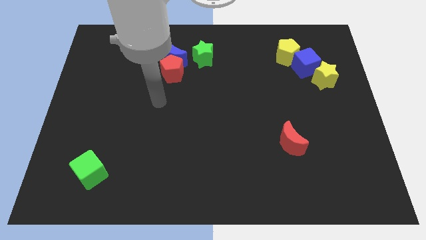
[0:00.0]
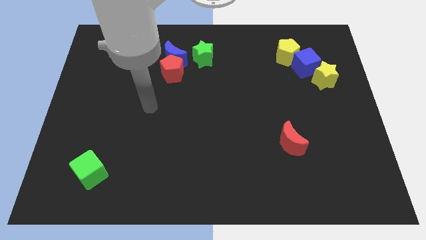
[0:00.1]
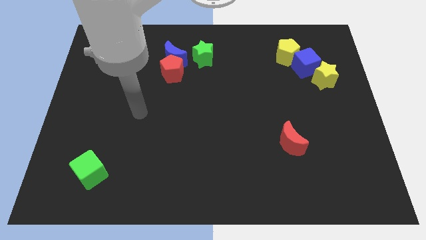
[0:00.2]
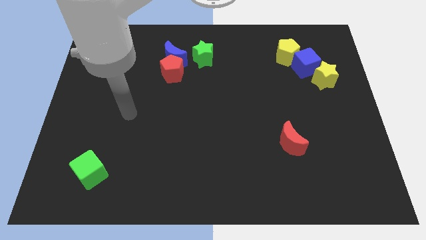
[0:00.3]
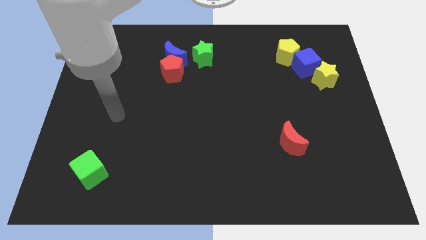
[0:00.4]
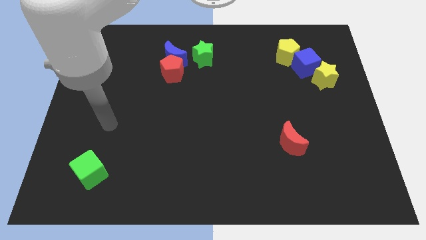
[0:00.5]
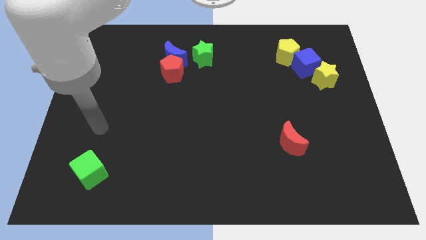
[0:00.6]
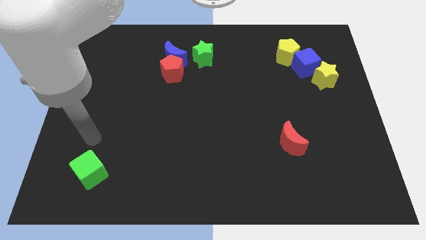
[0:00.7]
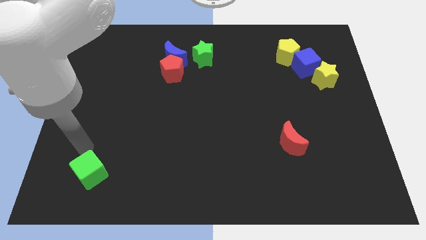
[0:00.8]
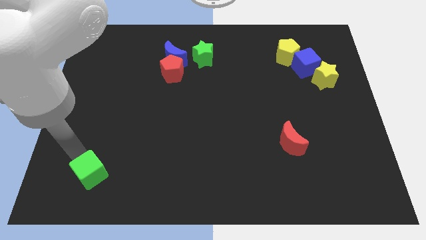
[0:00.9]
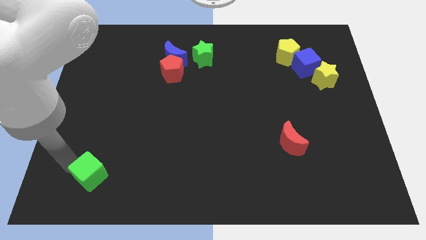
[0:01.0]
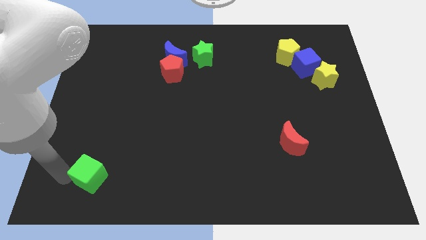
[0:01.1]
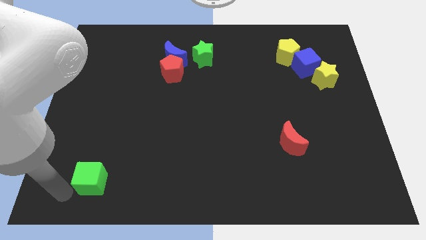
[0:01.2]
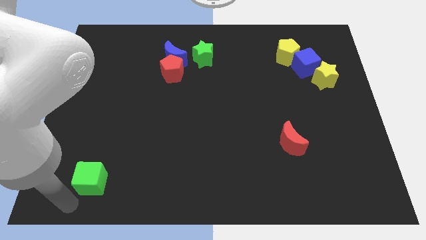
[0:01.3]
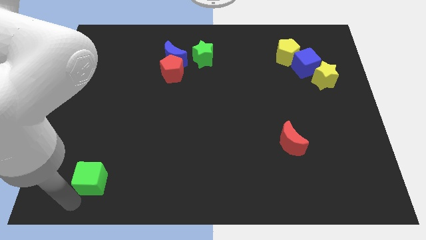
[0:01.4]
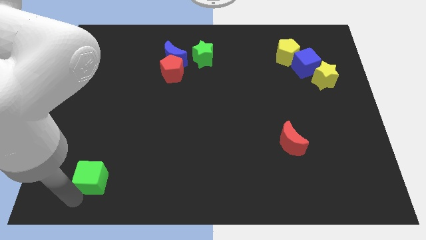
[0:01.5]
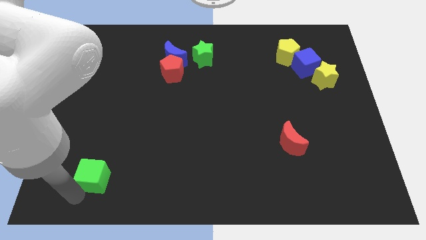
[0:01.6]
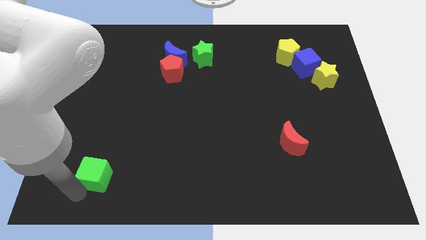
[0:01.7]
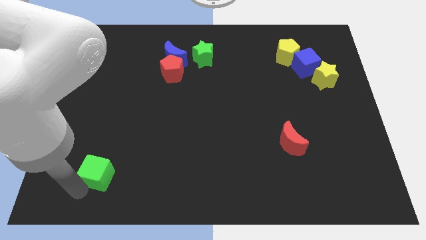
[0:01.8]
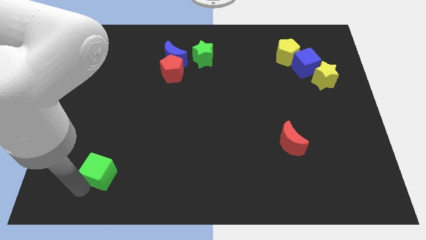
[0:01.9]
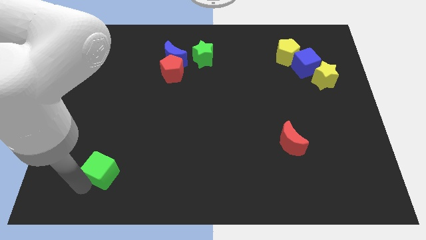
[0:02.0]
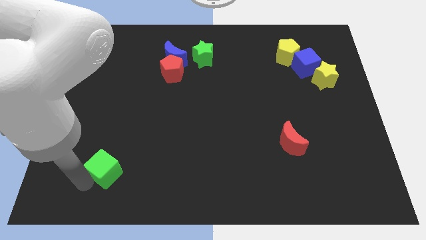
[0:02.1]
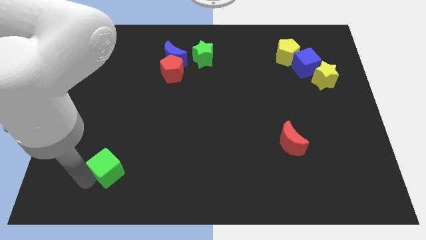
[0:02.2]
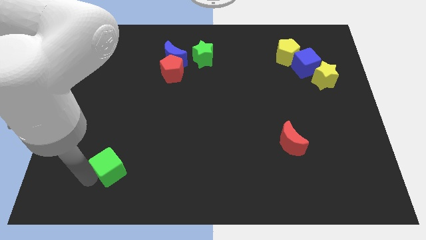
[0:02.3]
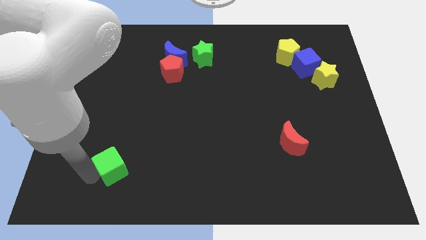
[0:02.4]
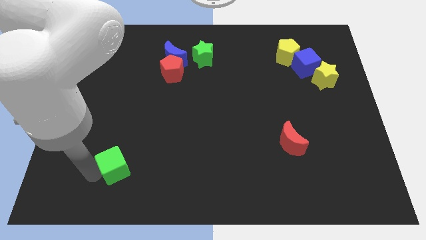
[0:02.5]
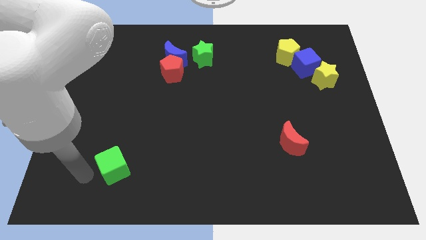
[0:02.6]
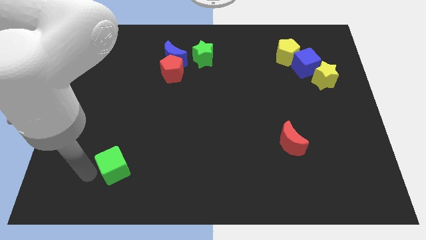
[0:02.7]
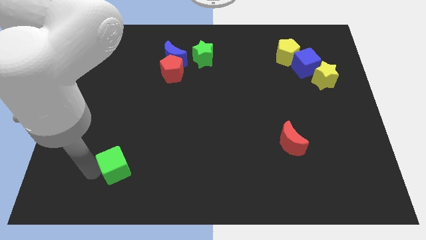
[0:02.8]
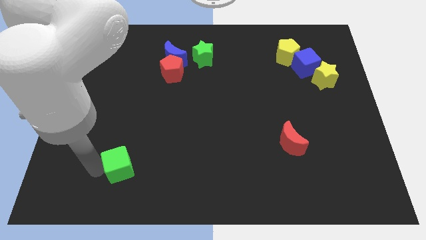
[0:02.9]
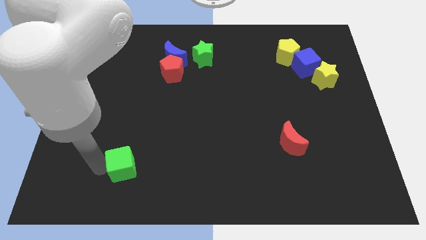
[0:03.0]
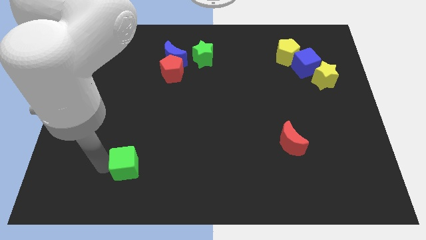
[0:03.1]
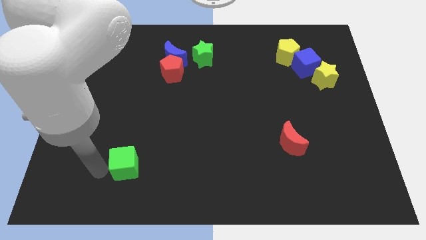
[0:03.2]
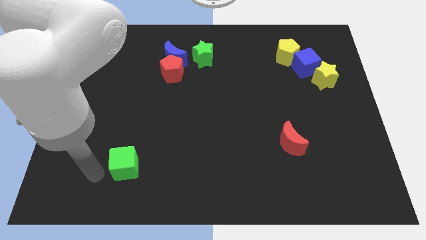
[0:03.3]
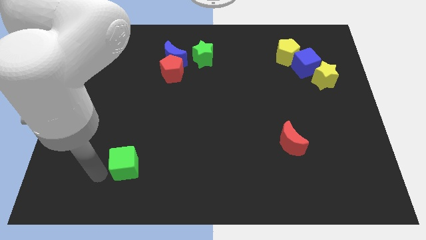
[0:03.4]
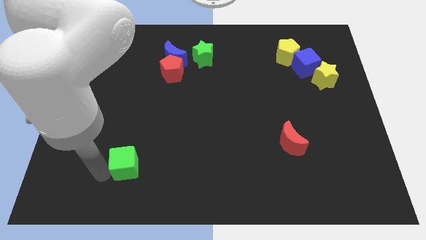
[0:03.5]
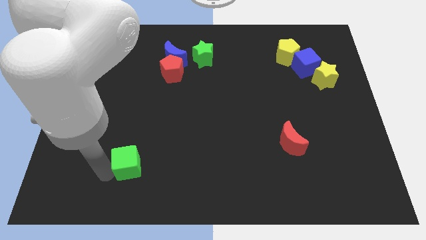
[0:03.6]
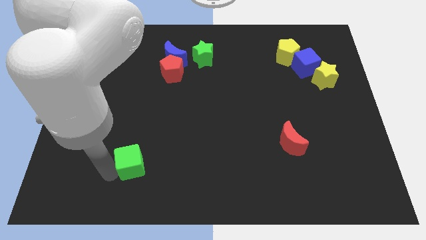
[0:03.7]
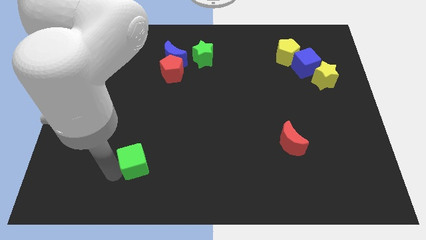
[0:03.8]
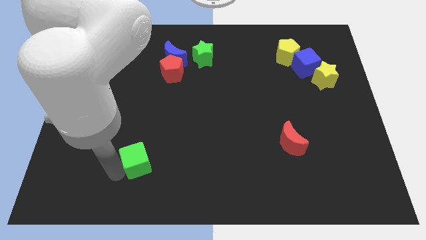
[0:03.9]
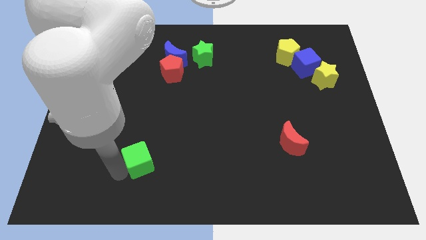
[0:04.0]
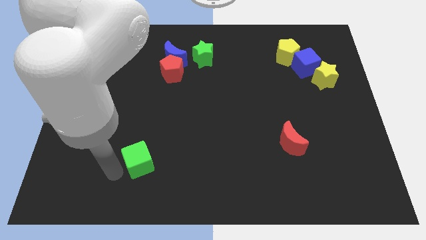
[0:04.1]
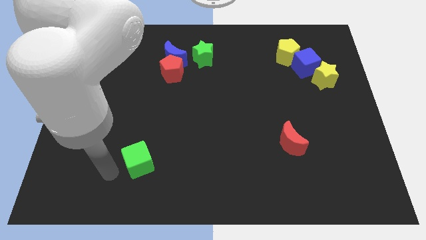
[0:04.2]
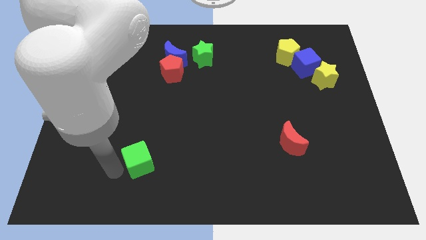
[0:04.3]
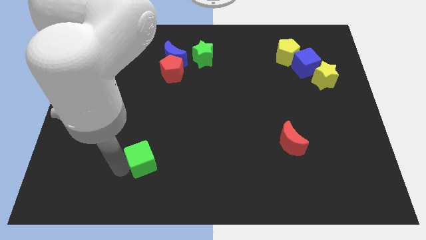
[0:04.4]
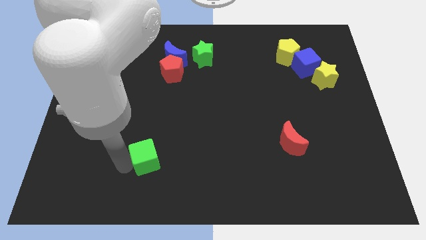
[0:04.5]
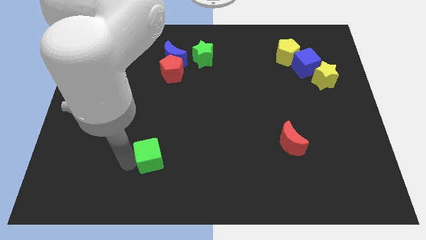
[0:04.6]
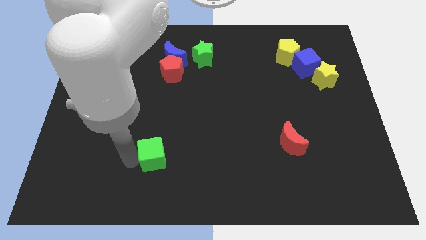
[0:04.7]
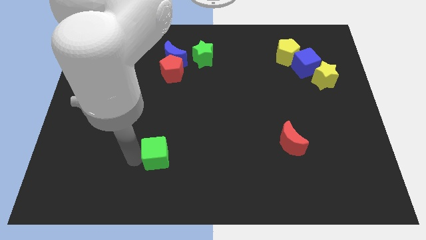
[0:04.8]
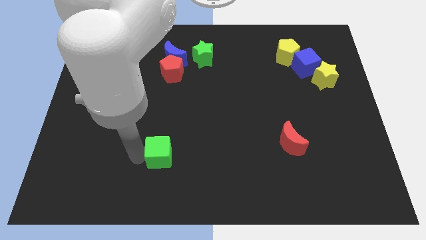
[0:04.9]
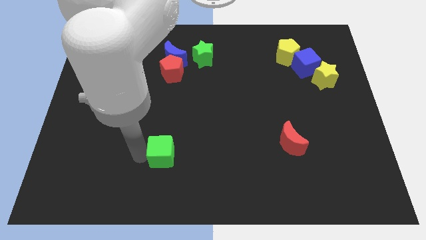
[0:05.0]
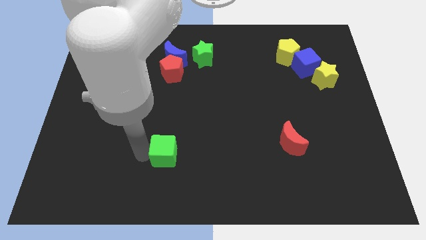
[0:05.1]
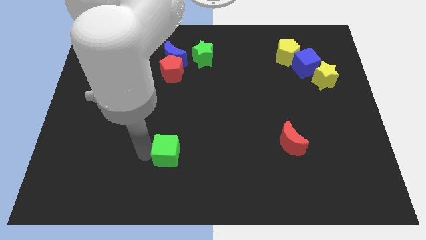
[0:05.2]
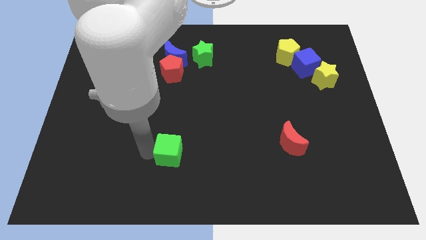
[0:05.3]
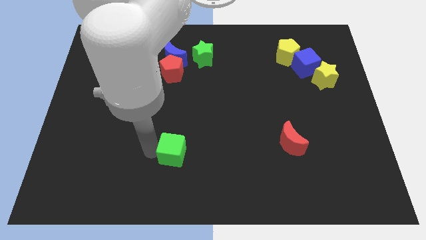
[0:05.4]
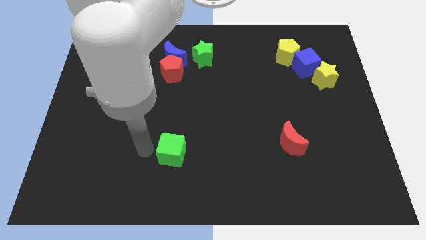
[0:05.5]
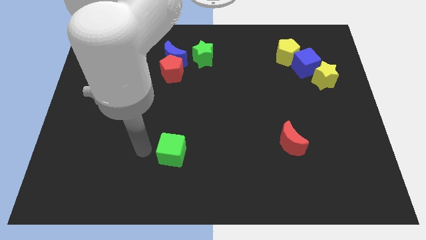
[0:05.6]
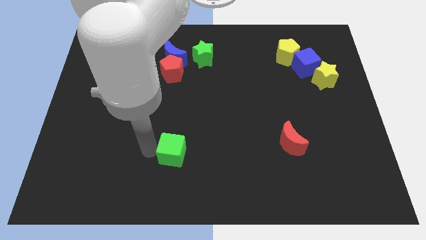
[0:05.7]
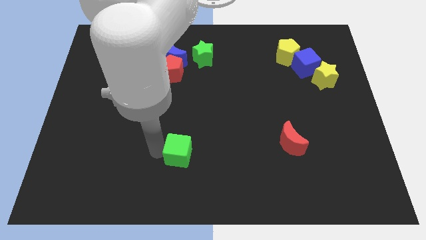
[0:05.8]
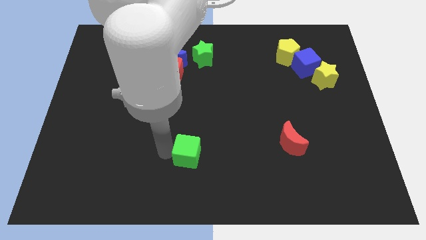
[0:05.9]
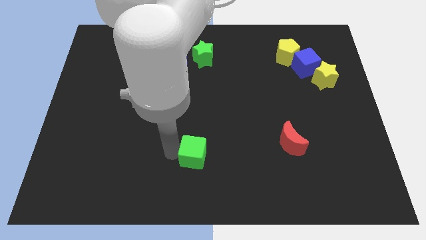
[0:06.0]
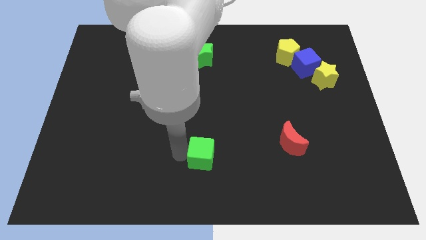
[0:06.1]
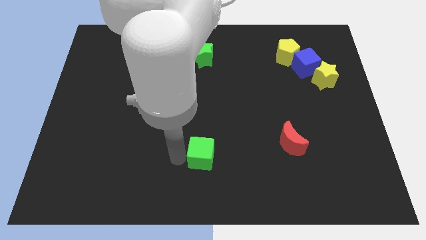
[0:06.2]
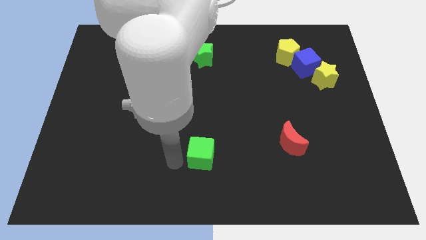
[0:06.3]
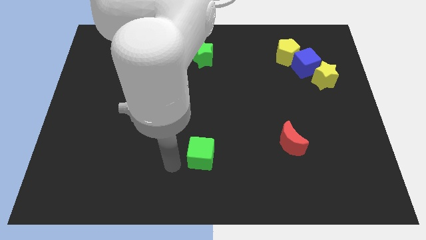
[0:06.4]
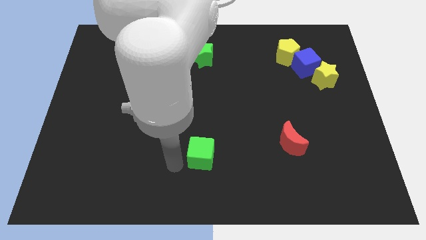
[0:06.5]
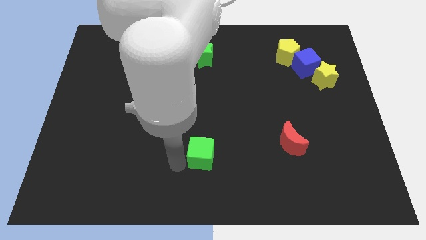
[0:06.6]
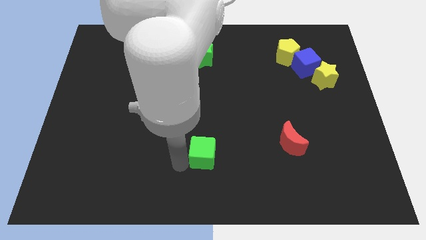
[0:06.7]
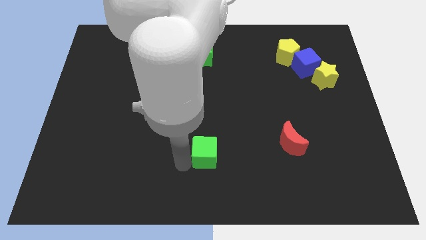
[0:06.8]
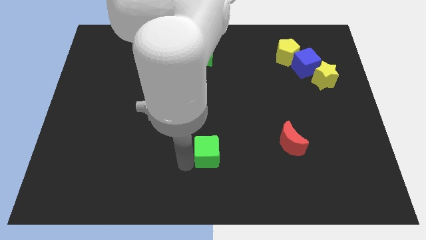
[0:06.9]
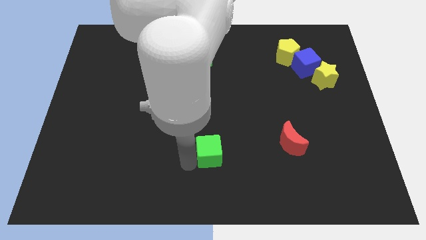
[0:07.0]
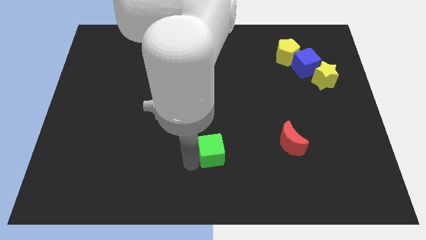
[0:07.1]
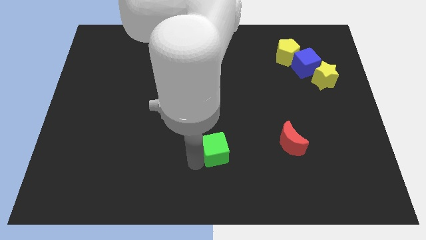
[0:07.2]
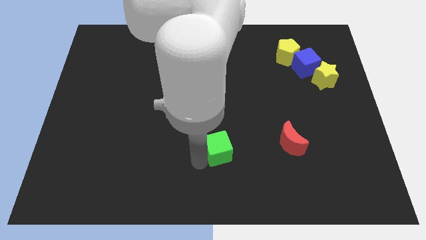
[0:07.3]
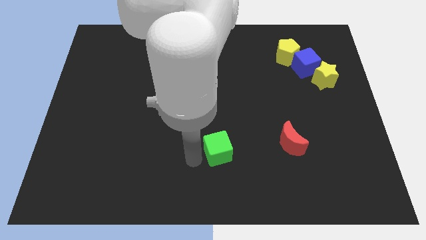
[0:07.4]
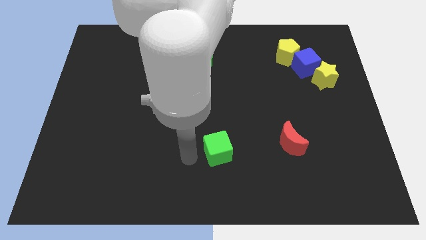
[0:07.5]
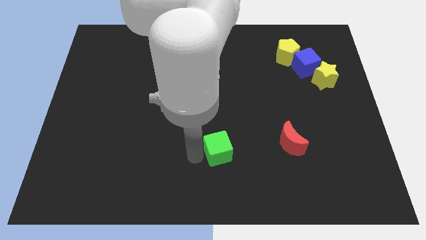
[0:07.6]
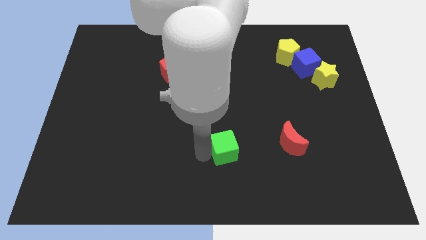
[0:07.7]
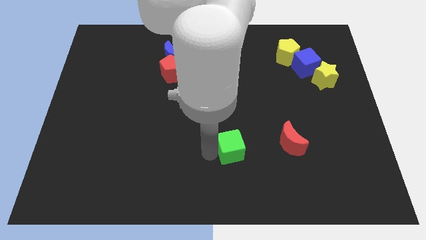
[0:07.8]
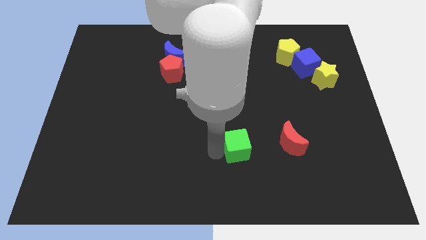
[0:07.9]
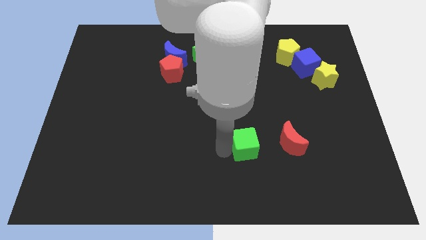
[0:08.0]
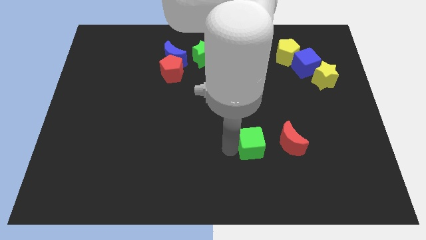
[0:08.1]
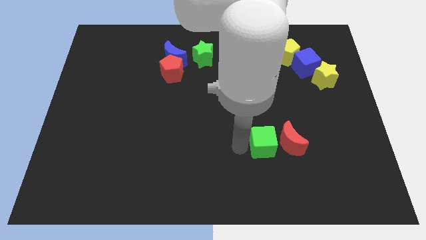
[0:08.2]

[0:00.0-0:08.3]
put the green cube to the red moon
